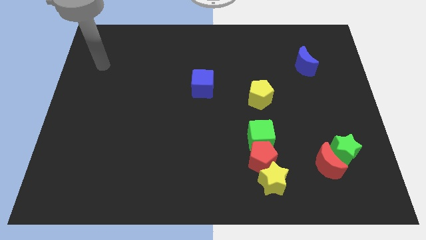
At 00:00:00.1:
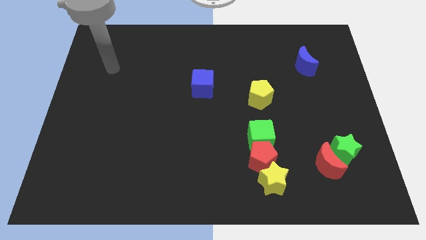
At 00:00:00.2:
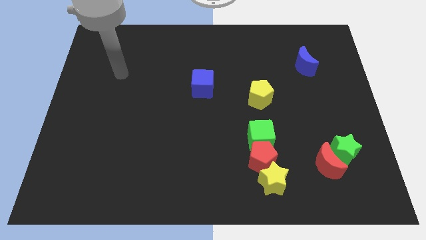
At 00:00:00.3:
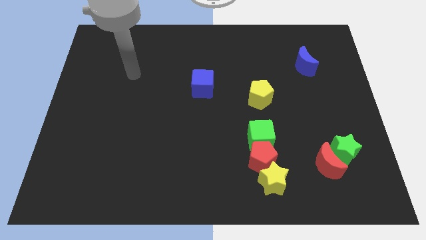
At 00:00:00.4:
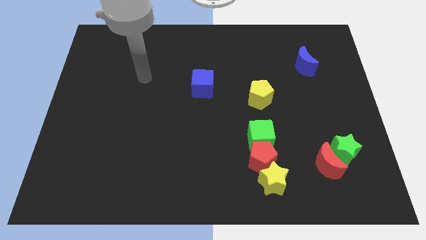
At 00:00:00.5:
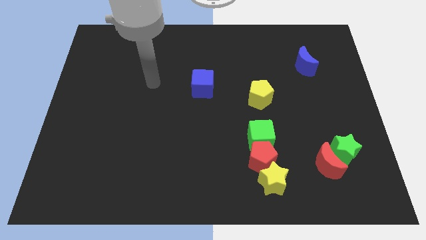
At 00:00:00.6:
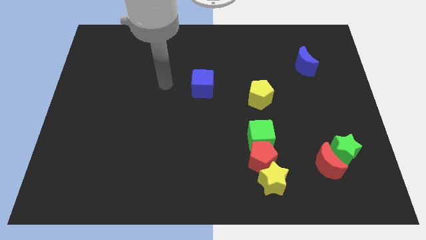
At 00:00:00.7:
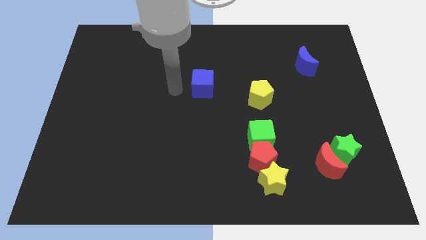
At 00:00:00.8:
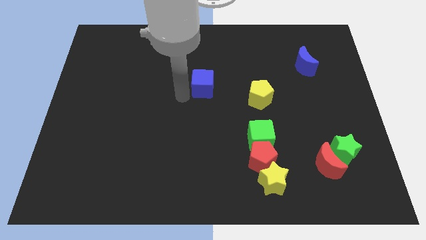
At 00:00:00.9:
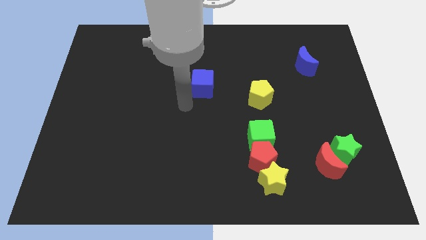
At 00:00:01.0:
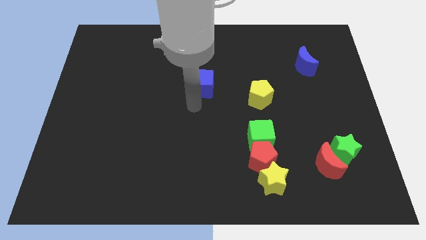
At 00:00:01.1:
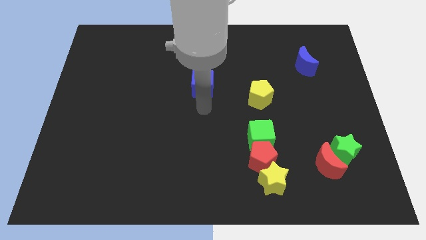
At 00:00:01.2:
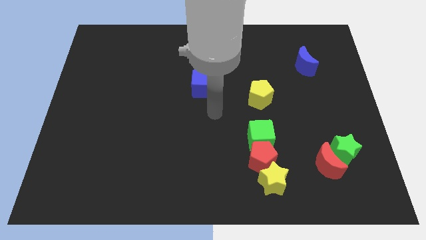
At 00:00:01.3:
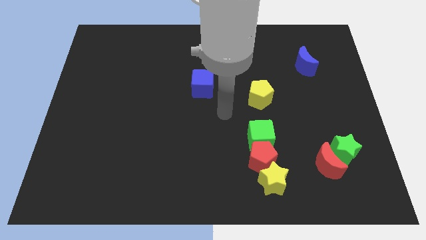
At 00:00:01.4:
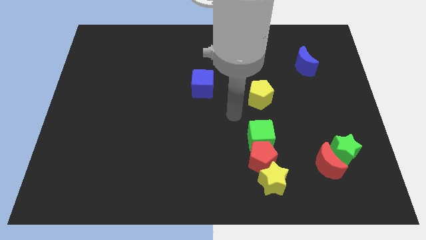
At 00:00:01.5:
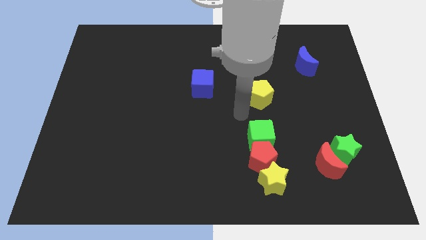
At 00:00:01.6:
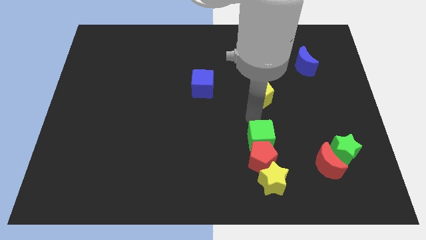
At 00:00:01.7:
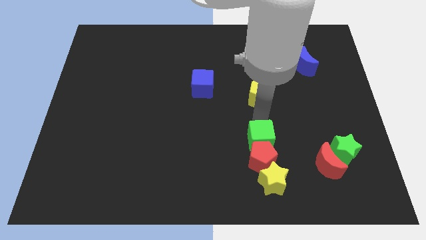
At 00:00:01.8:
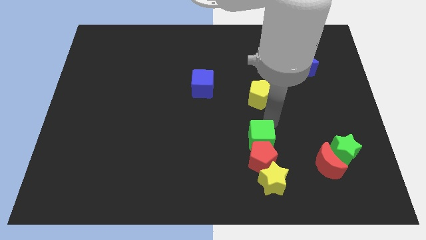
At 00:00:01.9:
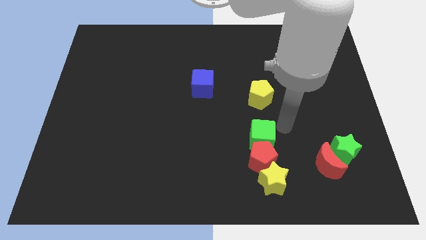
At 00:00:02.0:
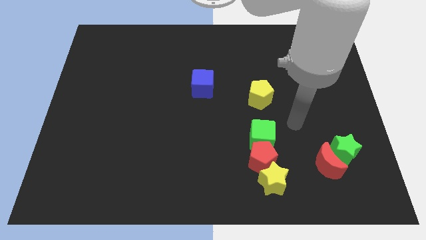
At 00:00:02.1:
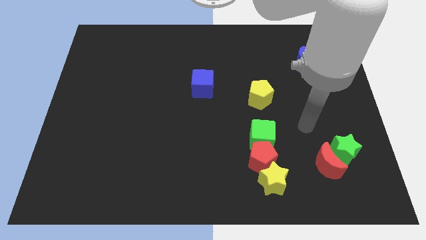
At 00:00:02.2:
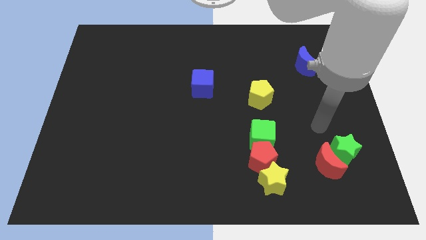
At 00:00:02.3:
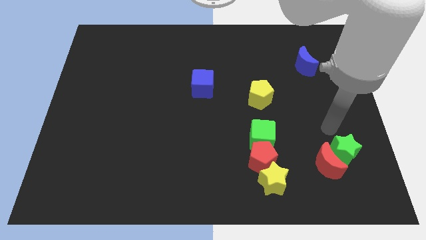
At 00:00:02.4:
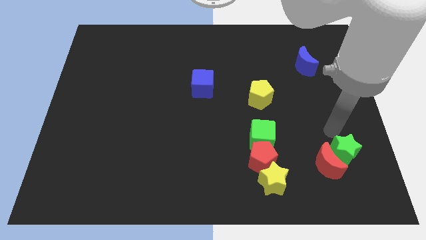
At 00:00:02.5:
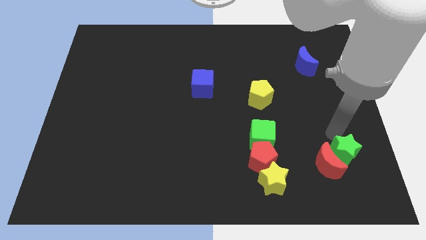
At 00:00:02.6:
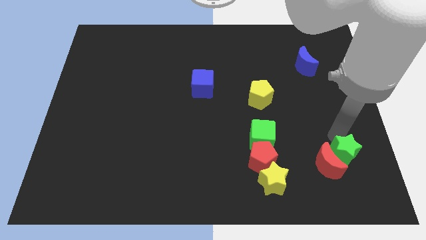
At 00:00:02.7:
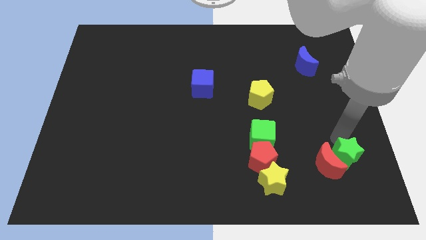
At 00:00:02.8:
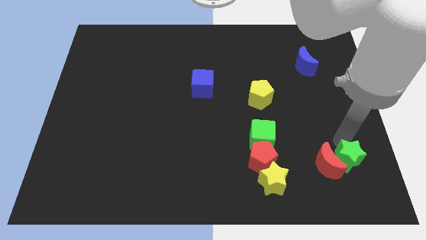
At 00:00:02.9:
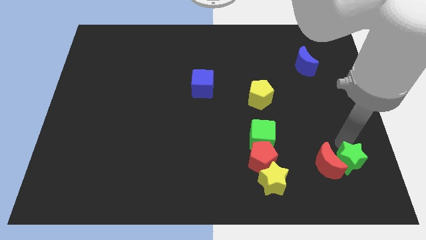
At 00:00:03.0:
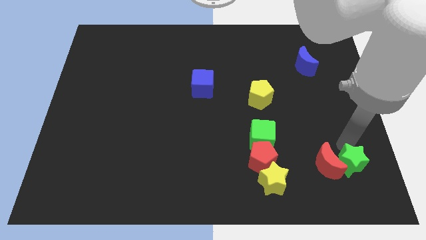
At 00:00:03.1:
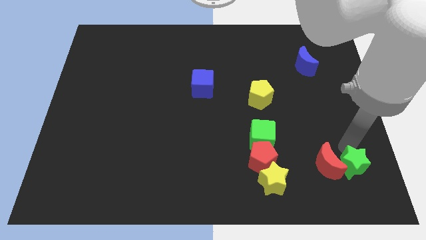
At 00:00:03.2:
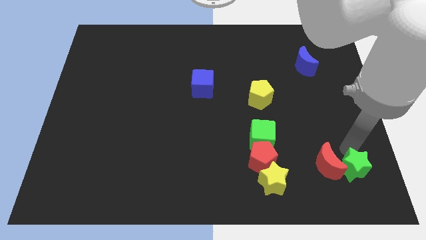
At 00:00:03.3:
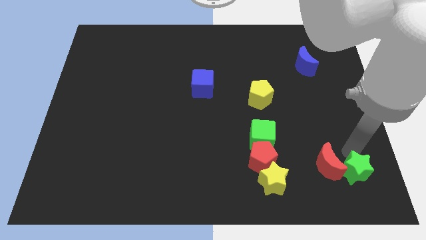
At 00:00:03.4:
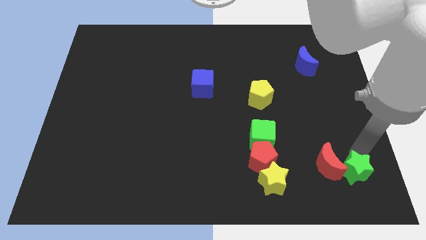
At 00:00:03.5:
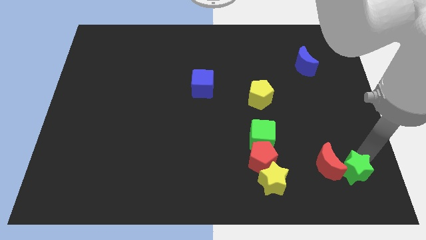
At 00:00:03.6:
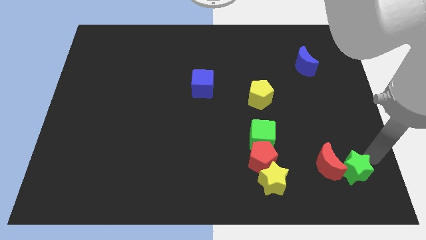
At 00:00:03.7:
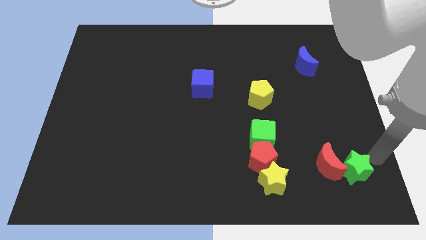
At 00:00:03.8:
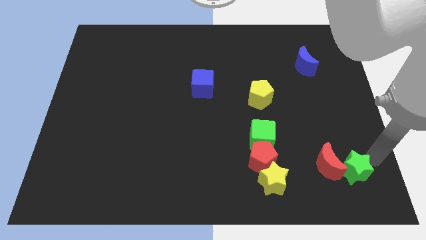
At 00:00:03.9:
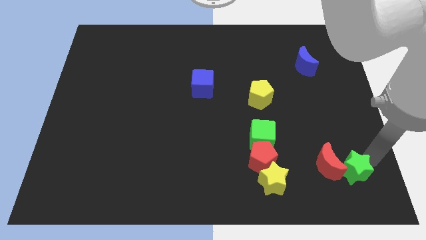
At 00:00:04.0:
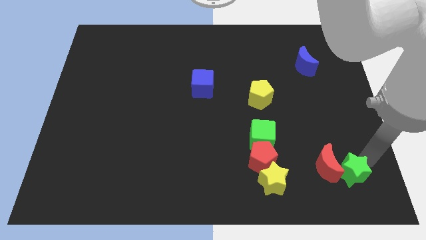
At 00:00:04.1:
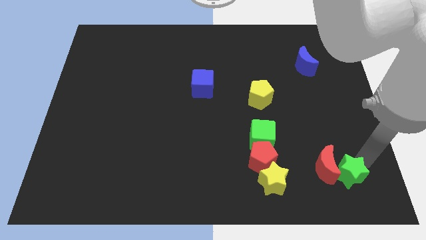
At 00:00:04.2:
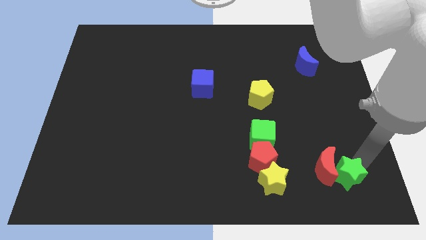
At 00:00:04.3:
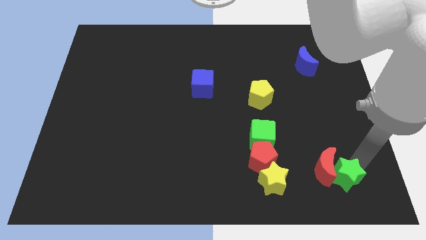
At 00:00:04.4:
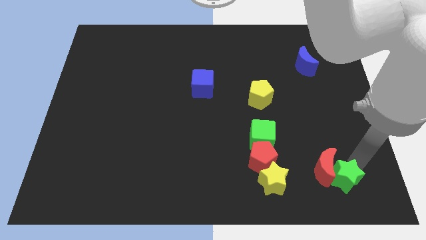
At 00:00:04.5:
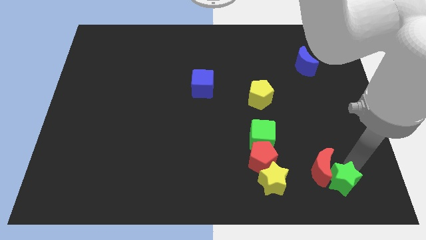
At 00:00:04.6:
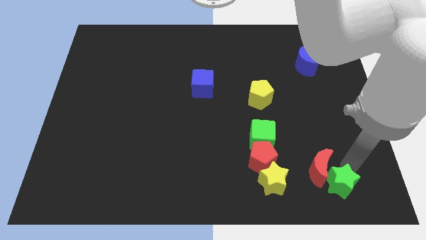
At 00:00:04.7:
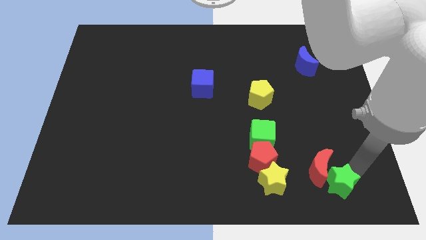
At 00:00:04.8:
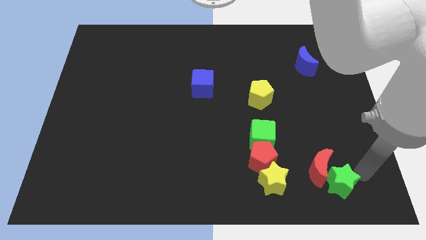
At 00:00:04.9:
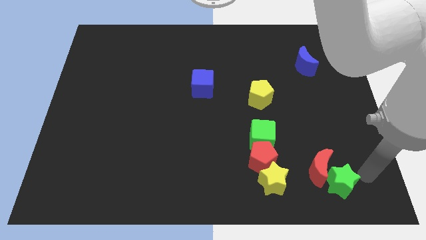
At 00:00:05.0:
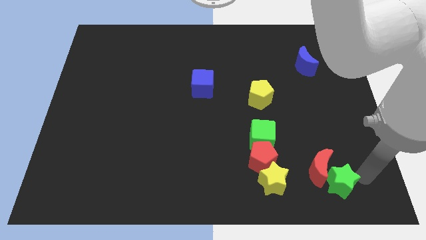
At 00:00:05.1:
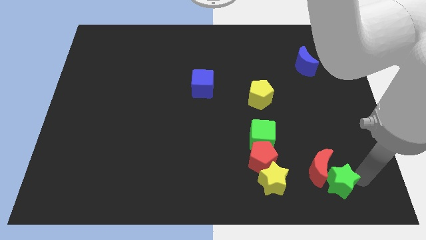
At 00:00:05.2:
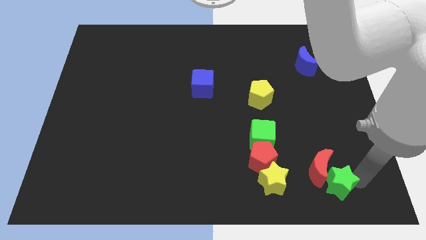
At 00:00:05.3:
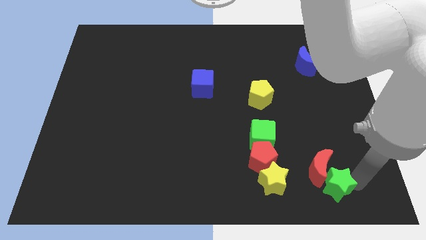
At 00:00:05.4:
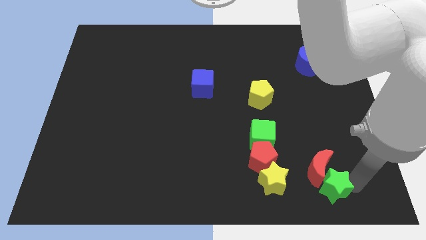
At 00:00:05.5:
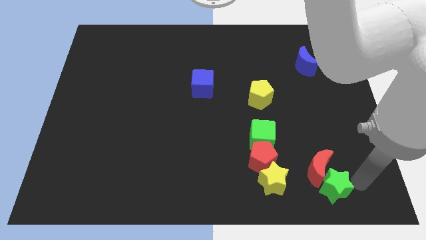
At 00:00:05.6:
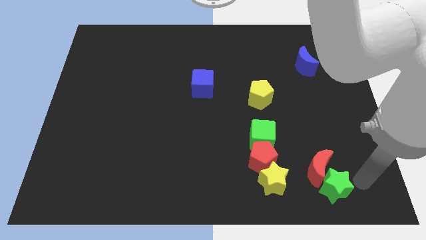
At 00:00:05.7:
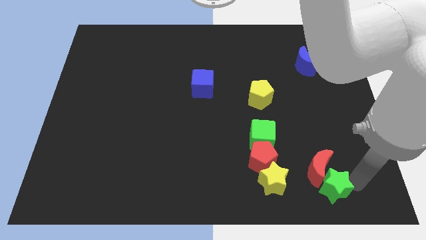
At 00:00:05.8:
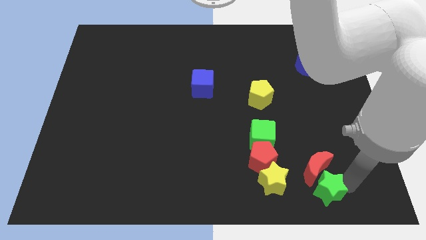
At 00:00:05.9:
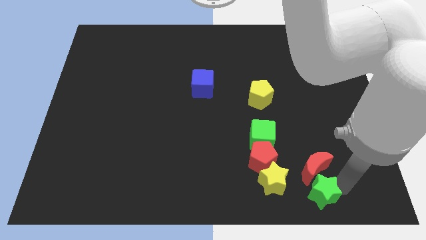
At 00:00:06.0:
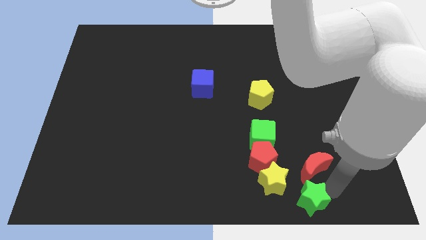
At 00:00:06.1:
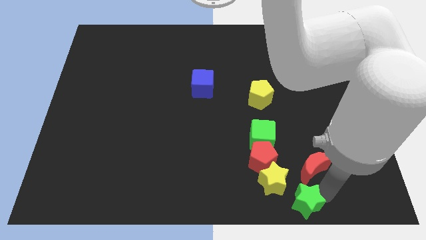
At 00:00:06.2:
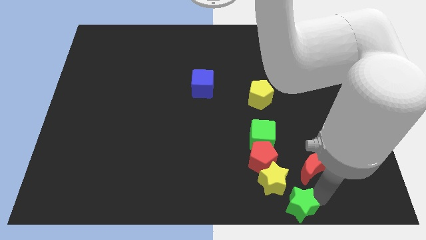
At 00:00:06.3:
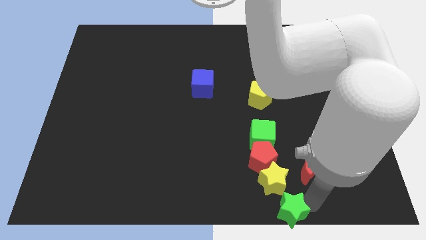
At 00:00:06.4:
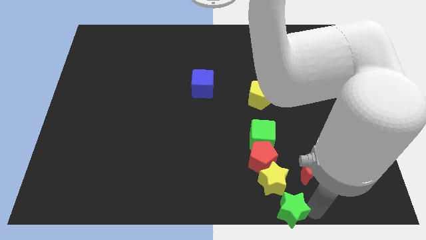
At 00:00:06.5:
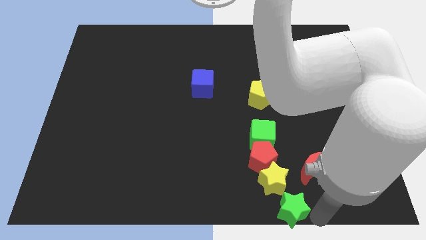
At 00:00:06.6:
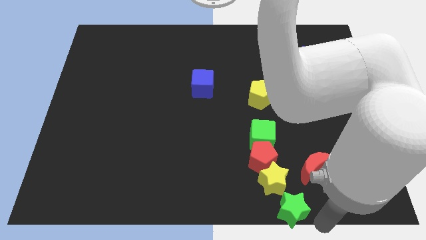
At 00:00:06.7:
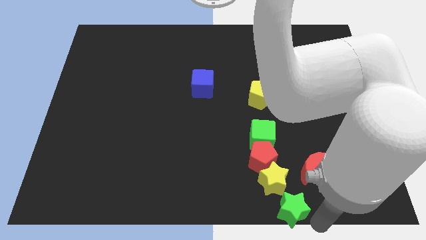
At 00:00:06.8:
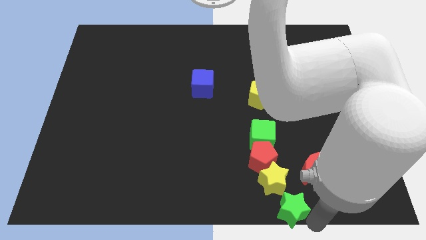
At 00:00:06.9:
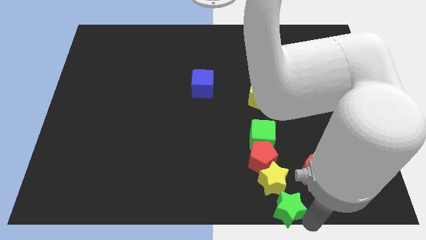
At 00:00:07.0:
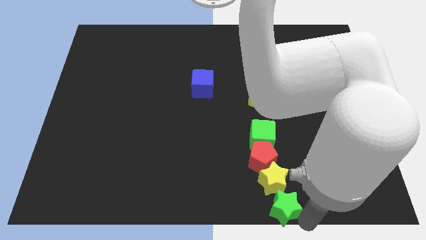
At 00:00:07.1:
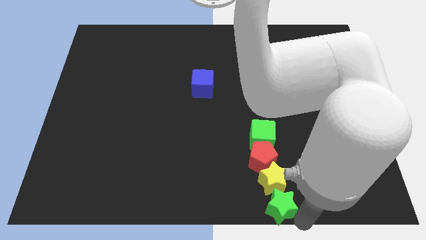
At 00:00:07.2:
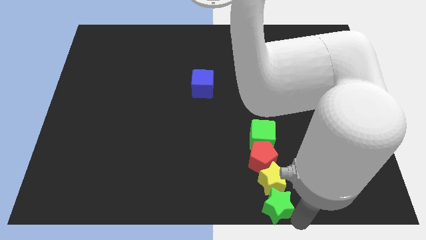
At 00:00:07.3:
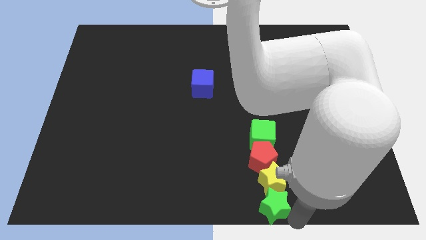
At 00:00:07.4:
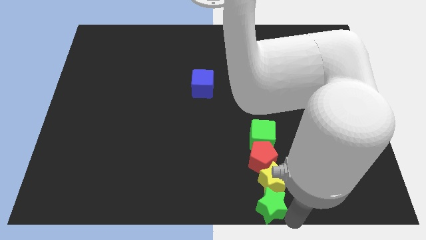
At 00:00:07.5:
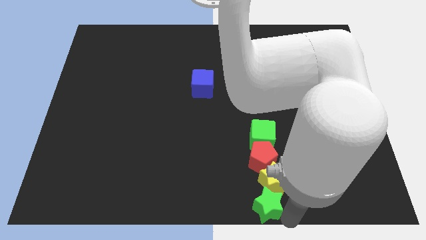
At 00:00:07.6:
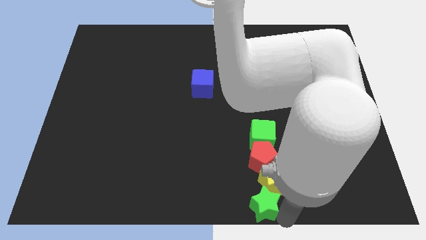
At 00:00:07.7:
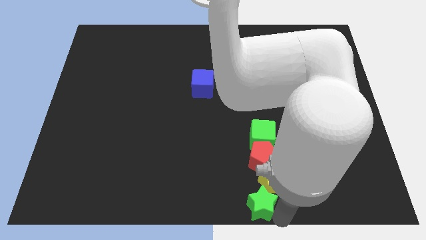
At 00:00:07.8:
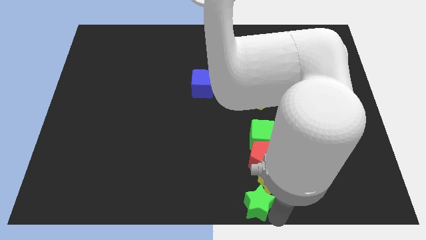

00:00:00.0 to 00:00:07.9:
move the green star to the left of the yellow star
